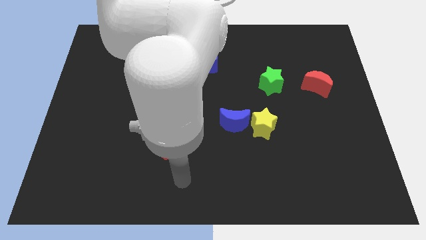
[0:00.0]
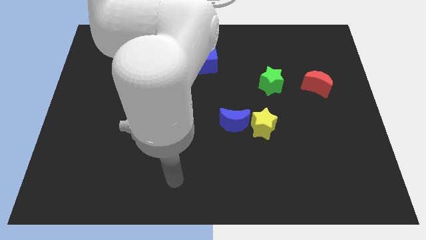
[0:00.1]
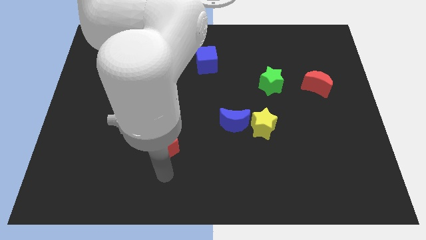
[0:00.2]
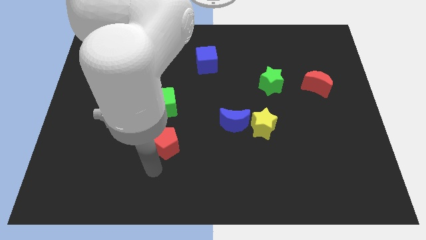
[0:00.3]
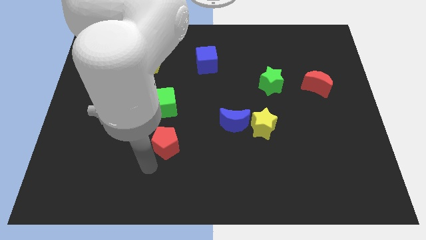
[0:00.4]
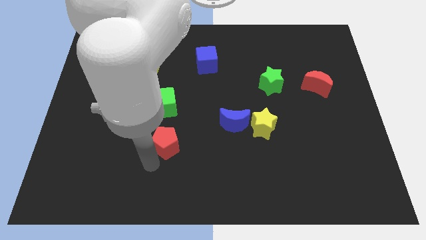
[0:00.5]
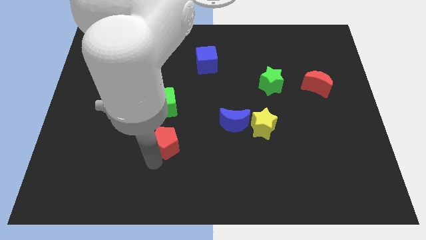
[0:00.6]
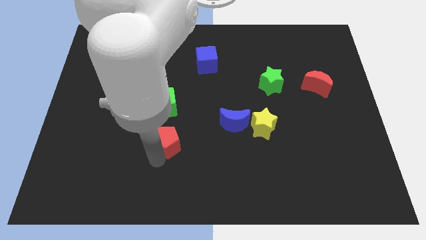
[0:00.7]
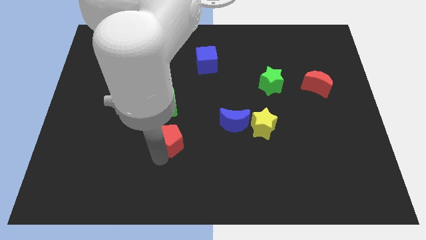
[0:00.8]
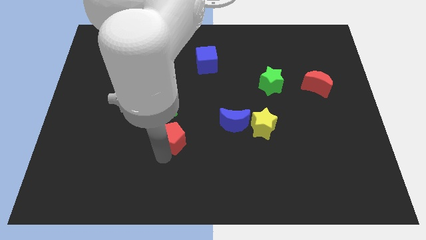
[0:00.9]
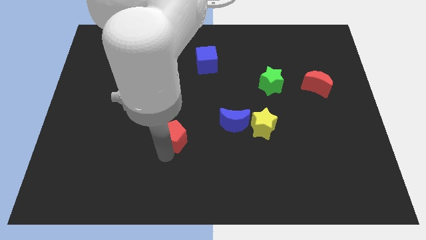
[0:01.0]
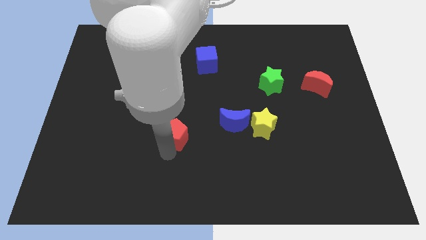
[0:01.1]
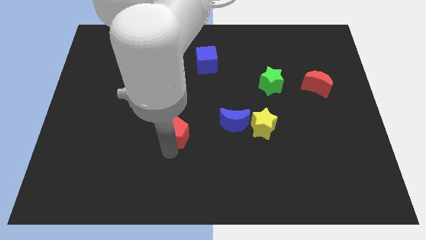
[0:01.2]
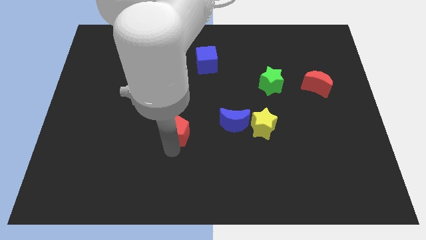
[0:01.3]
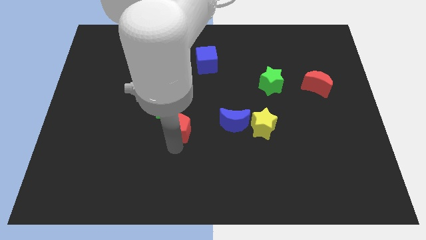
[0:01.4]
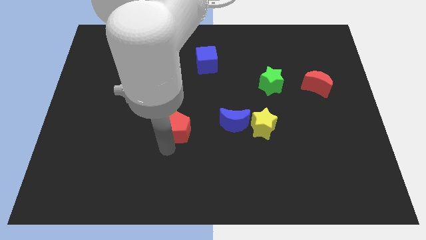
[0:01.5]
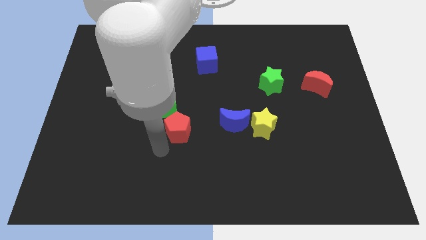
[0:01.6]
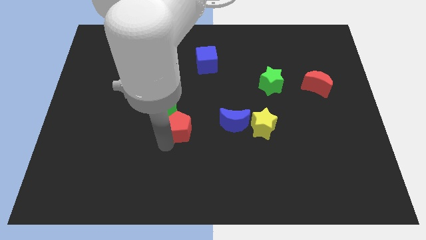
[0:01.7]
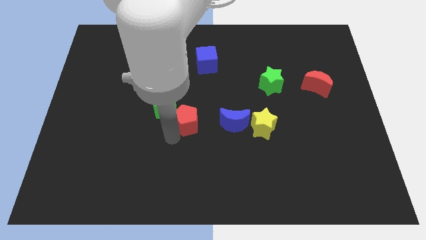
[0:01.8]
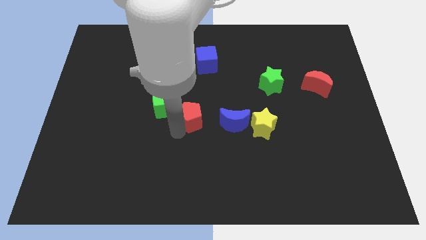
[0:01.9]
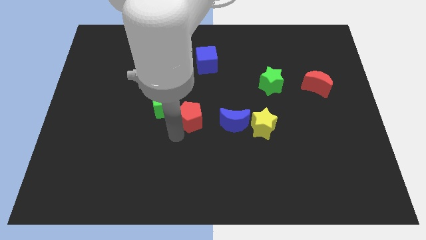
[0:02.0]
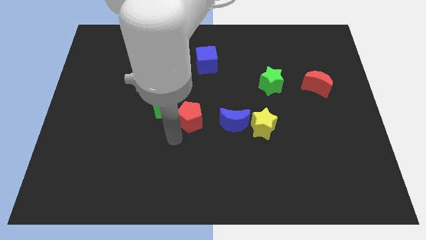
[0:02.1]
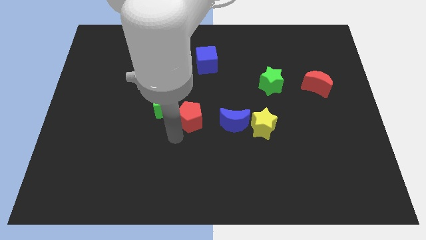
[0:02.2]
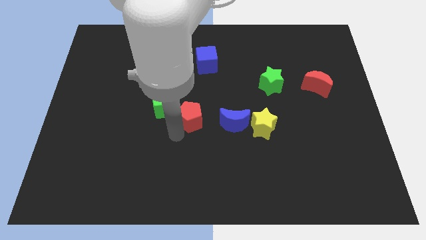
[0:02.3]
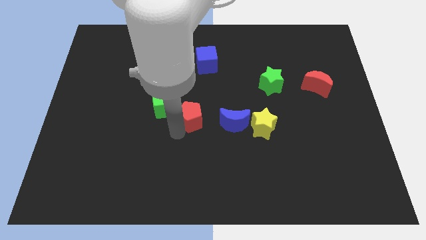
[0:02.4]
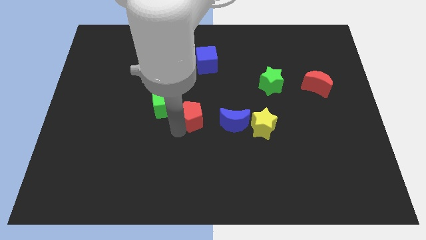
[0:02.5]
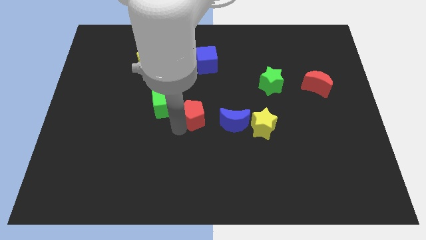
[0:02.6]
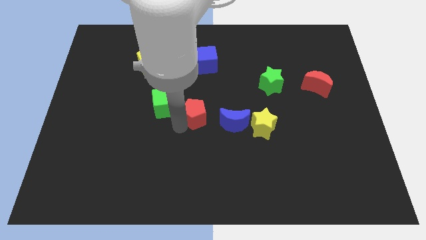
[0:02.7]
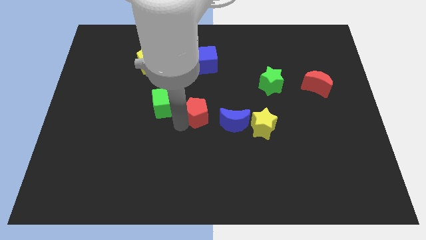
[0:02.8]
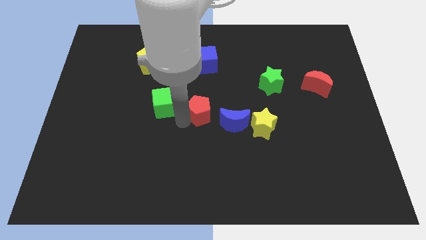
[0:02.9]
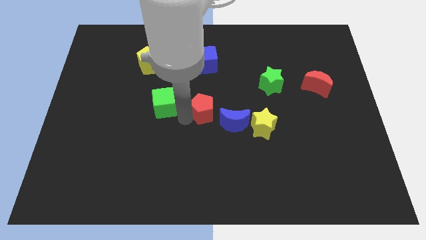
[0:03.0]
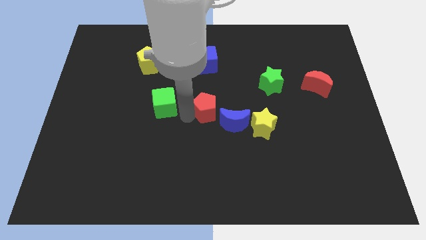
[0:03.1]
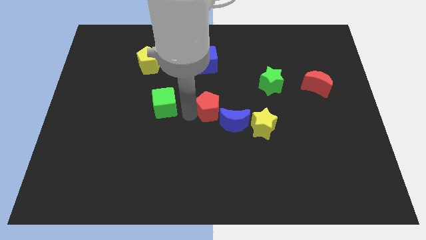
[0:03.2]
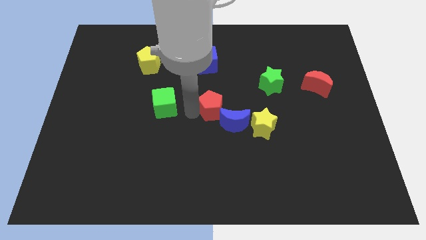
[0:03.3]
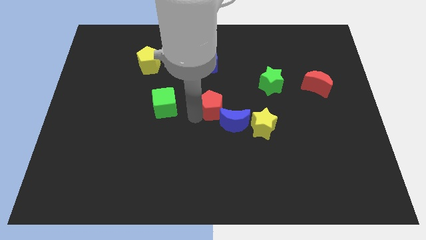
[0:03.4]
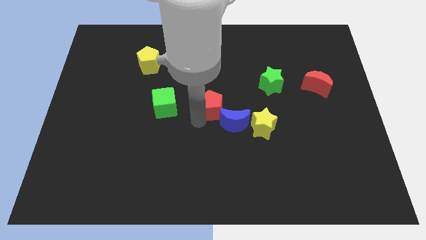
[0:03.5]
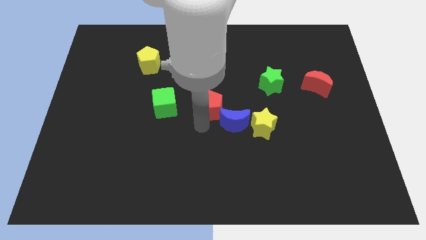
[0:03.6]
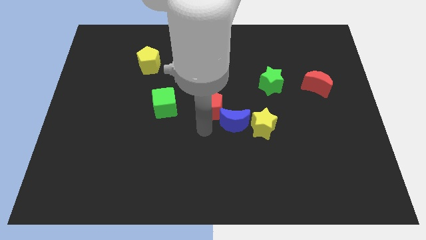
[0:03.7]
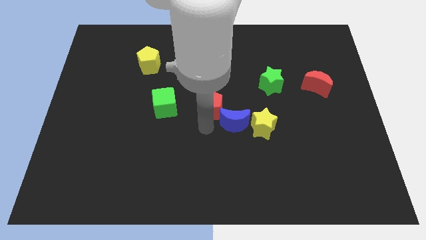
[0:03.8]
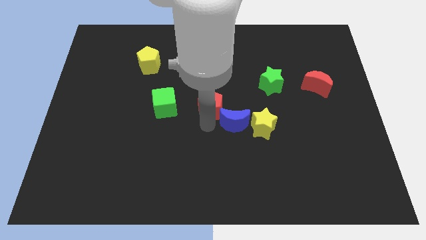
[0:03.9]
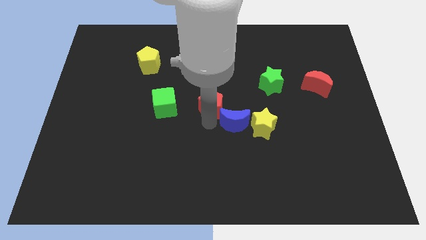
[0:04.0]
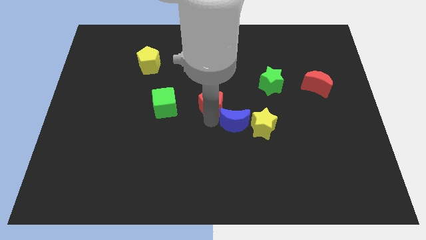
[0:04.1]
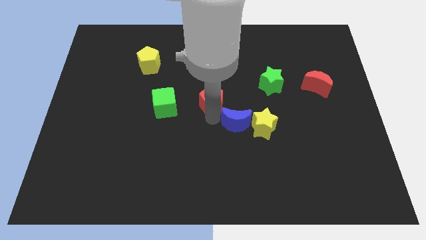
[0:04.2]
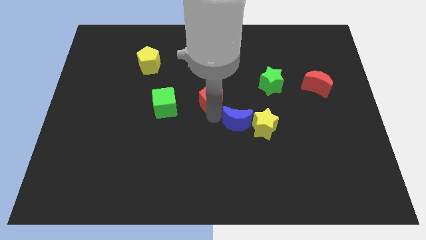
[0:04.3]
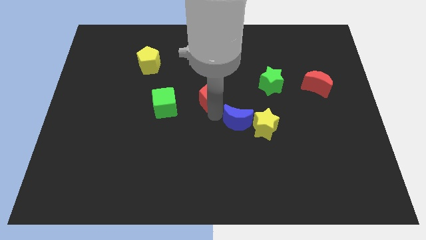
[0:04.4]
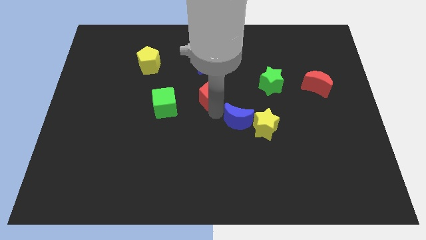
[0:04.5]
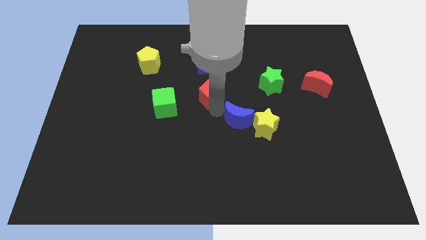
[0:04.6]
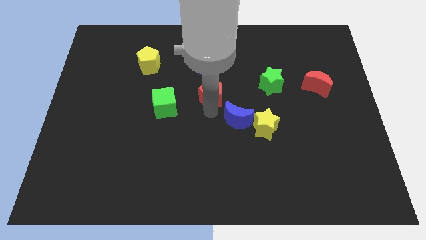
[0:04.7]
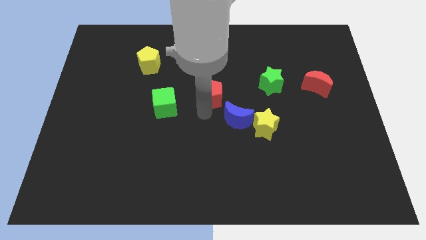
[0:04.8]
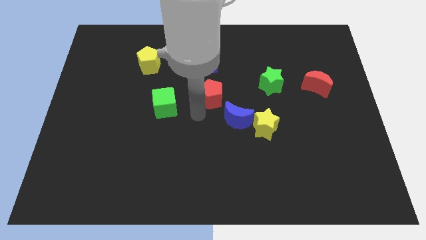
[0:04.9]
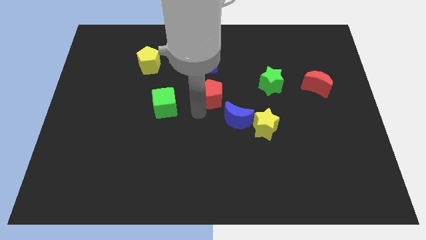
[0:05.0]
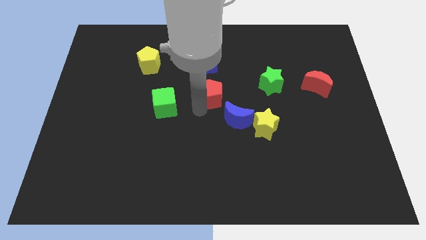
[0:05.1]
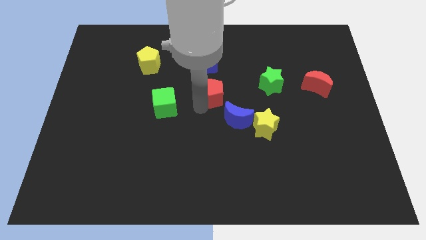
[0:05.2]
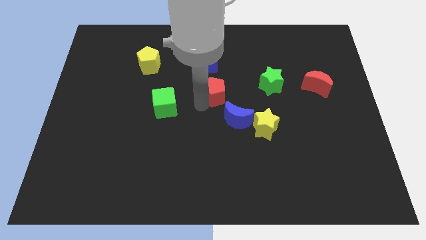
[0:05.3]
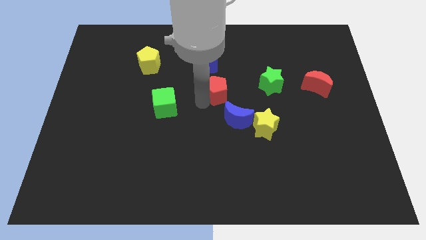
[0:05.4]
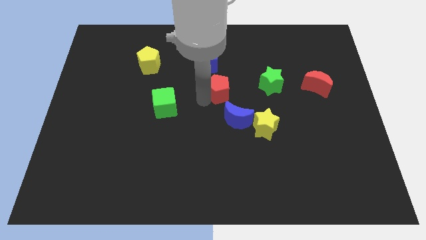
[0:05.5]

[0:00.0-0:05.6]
slide the red pentagon diagonally down and to the right of the blue cube

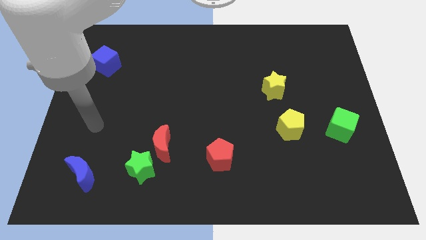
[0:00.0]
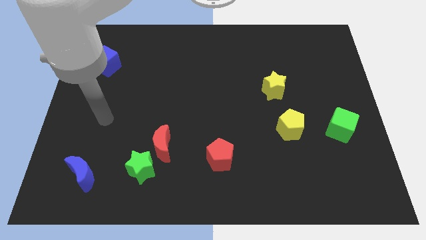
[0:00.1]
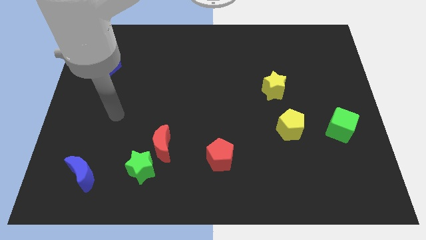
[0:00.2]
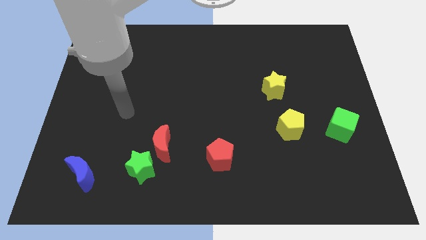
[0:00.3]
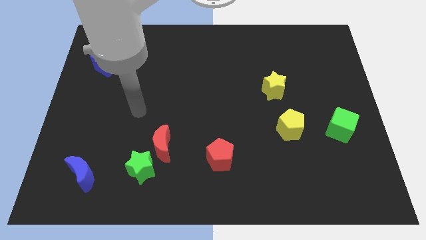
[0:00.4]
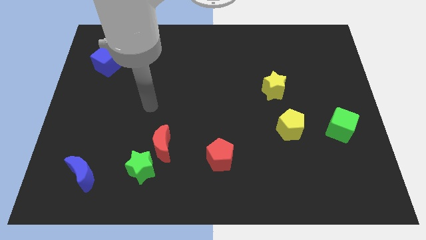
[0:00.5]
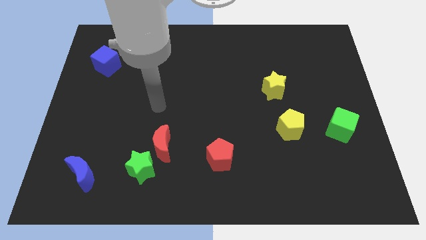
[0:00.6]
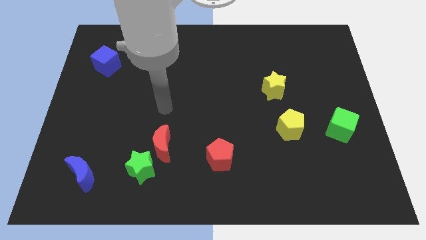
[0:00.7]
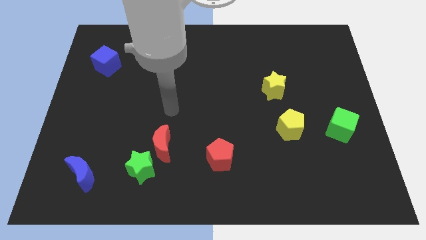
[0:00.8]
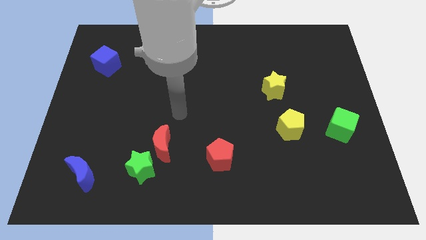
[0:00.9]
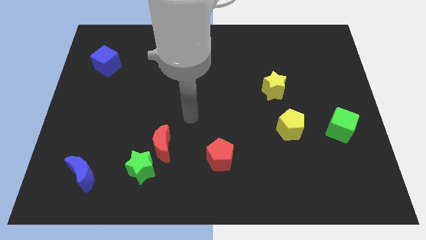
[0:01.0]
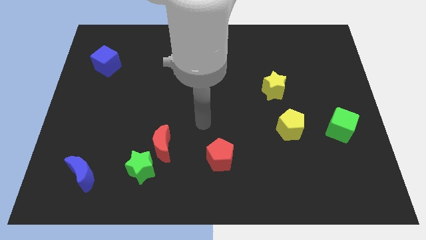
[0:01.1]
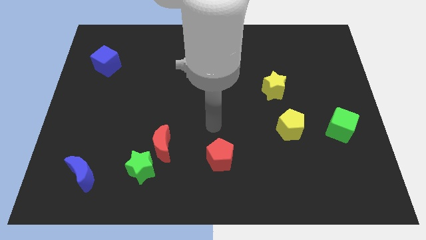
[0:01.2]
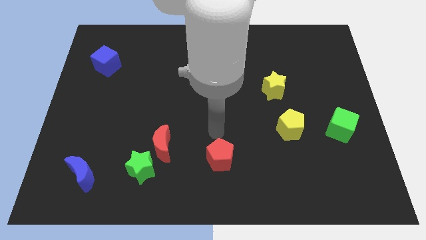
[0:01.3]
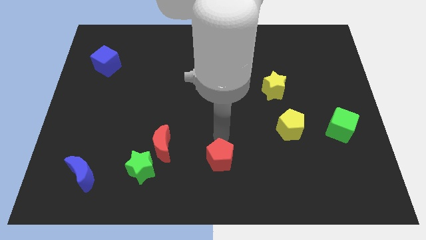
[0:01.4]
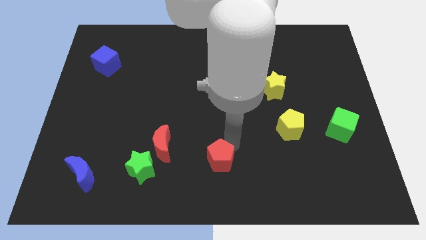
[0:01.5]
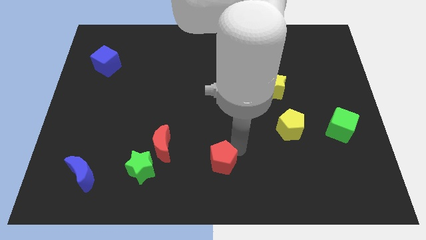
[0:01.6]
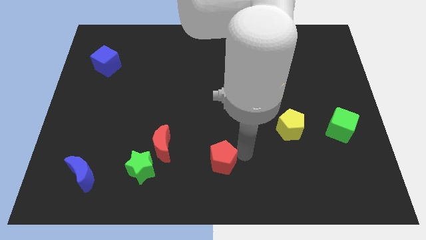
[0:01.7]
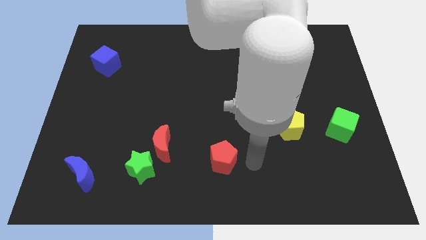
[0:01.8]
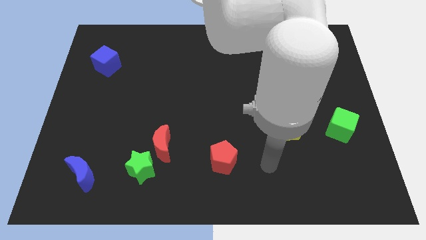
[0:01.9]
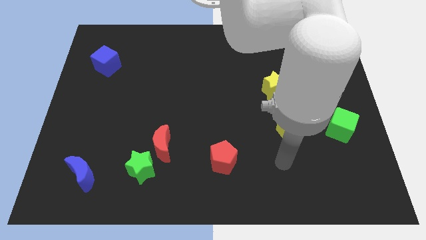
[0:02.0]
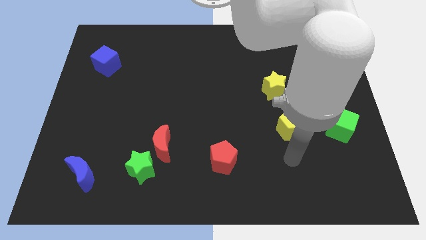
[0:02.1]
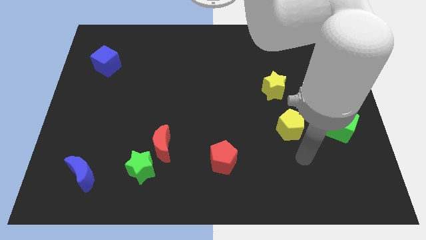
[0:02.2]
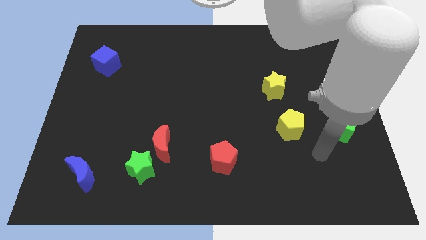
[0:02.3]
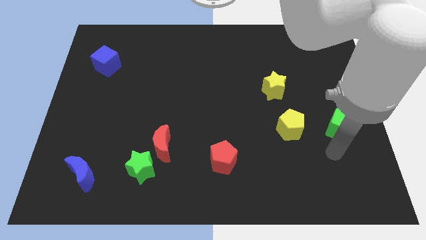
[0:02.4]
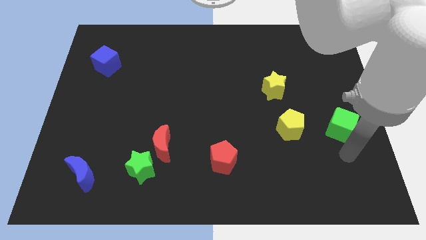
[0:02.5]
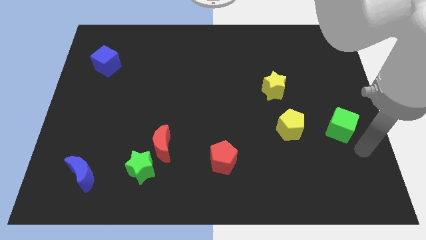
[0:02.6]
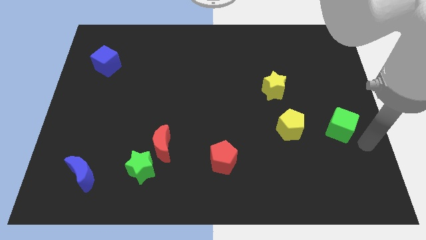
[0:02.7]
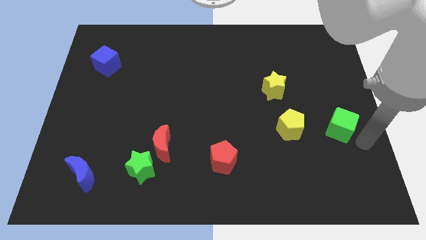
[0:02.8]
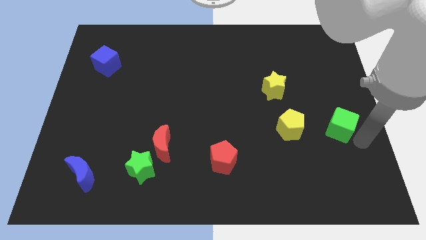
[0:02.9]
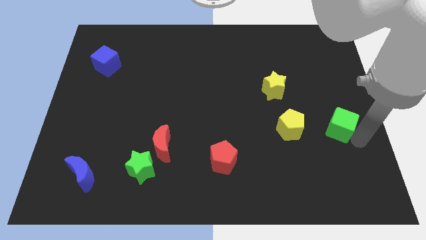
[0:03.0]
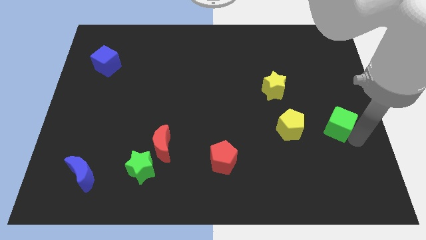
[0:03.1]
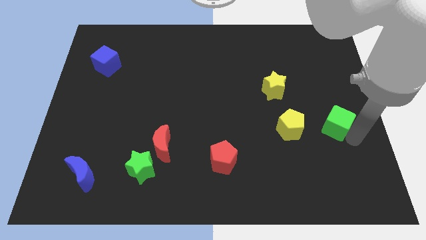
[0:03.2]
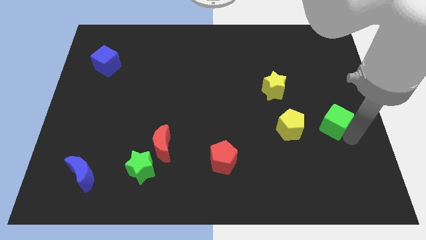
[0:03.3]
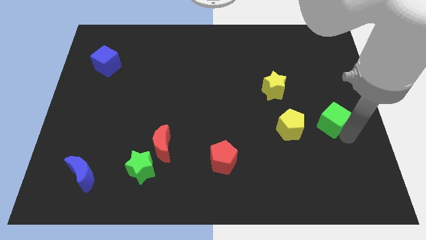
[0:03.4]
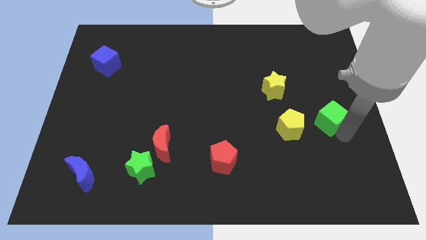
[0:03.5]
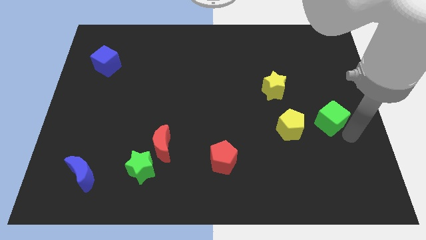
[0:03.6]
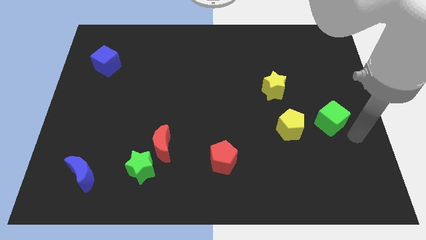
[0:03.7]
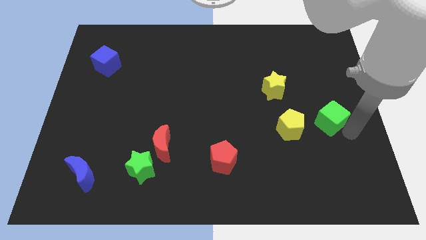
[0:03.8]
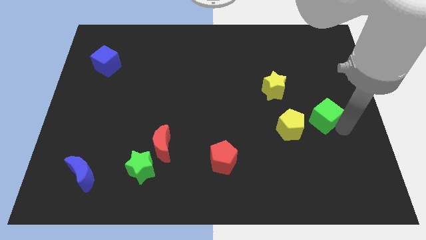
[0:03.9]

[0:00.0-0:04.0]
slide the green cube to the top right side of the yellow pentagon
